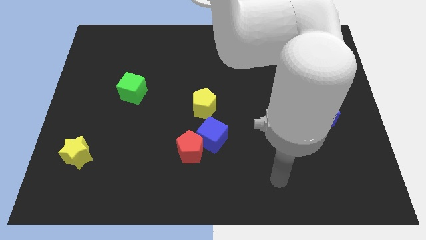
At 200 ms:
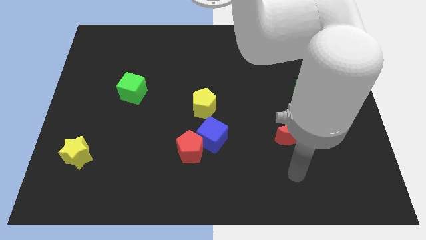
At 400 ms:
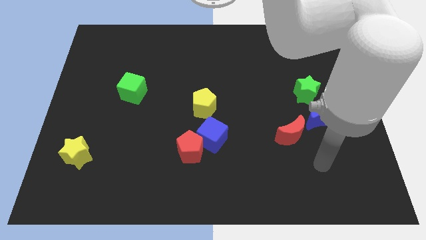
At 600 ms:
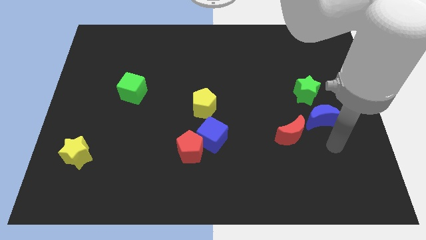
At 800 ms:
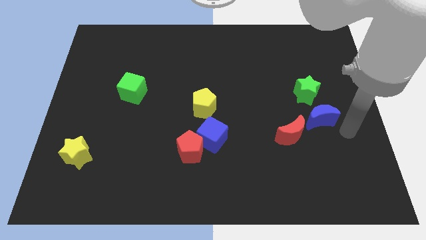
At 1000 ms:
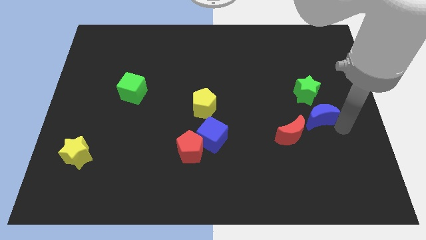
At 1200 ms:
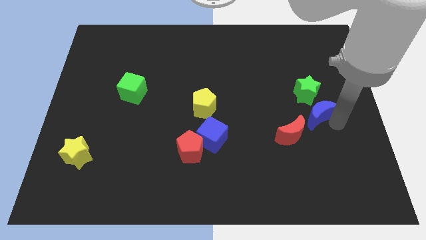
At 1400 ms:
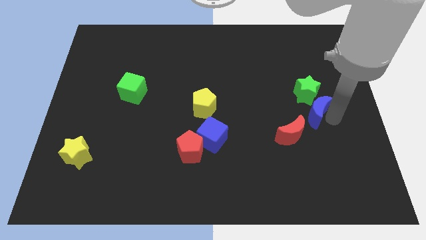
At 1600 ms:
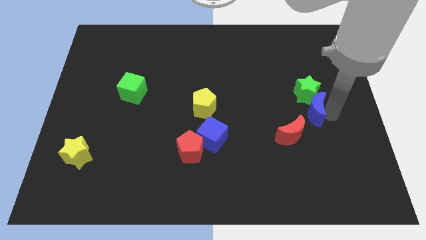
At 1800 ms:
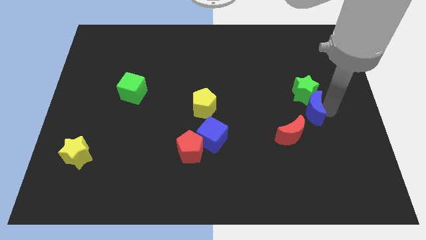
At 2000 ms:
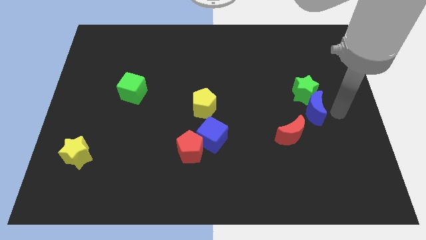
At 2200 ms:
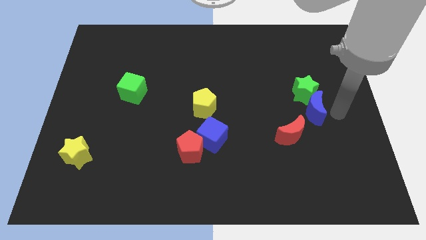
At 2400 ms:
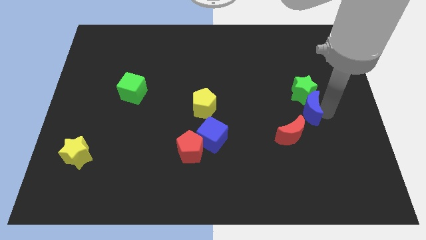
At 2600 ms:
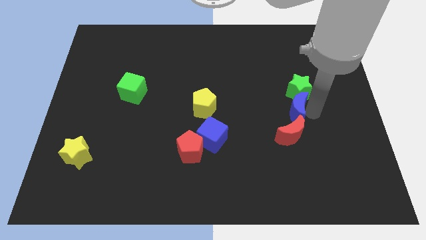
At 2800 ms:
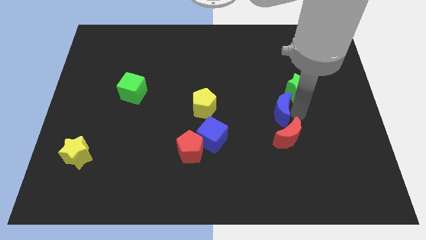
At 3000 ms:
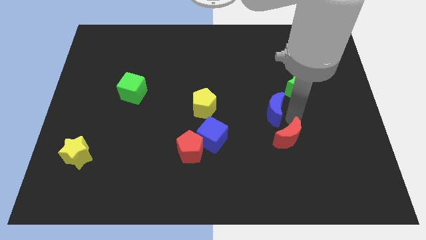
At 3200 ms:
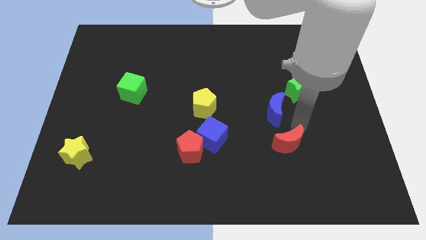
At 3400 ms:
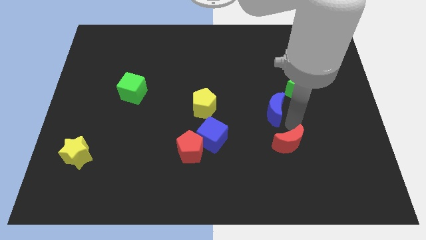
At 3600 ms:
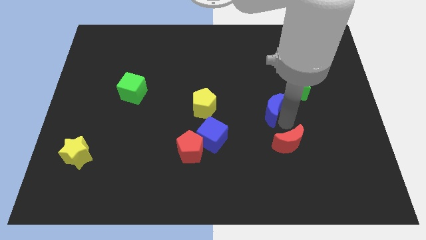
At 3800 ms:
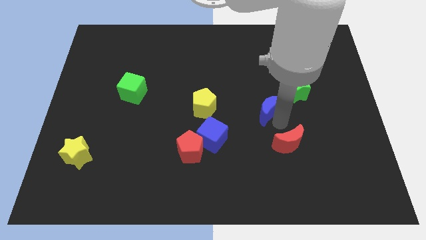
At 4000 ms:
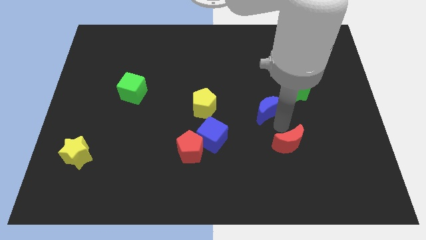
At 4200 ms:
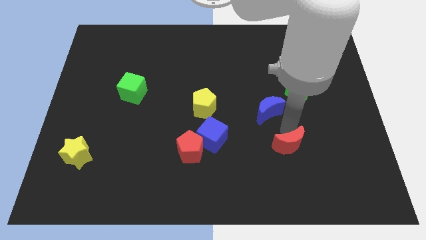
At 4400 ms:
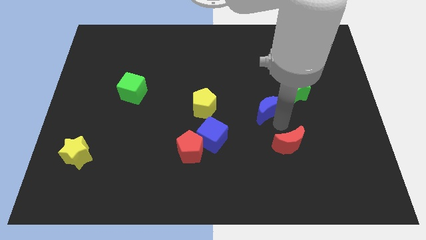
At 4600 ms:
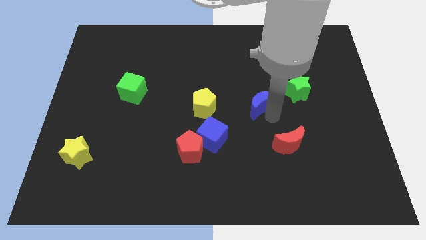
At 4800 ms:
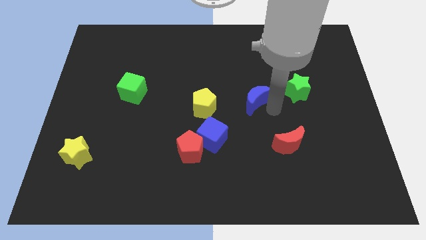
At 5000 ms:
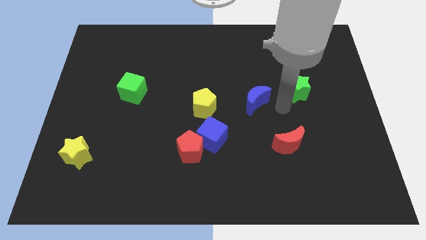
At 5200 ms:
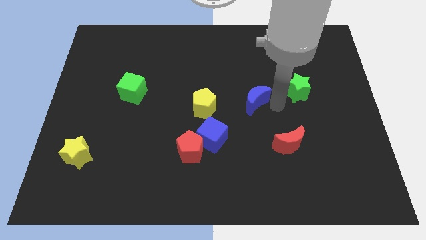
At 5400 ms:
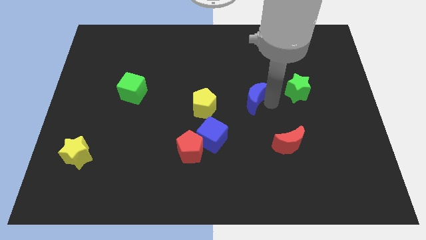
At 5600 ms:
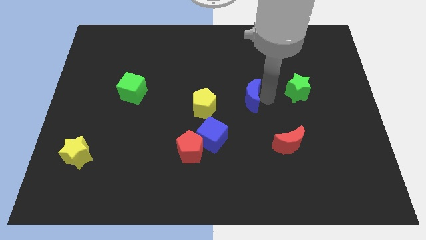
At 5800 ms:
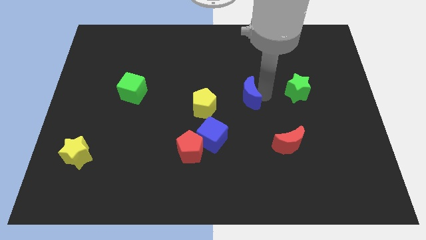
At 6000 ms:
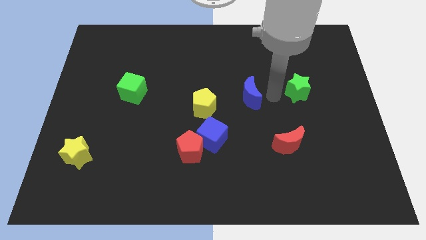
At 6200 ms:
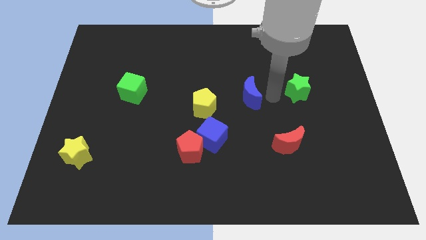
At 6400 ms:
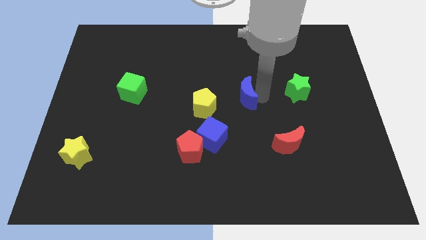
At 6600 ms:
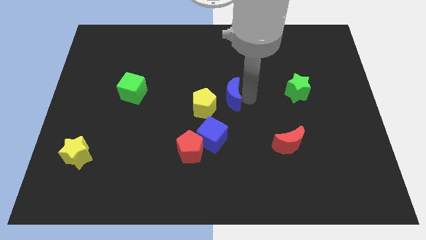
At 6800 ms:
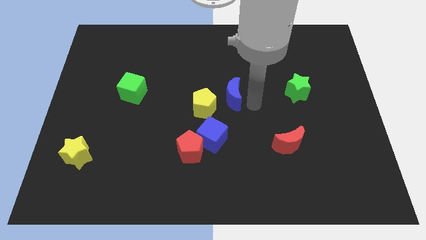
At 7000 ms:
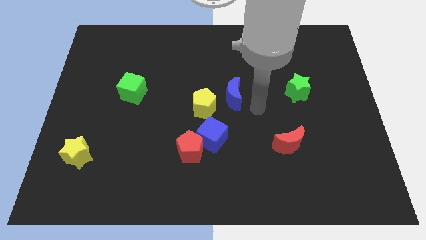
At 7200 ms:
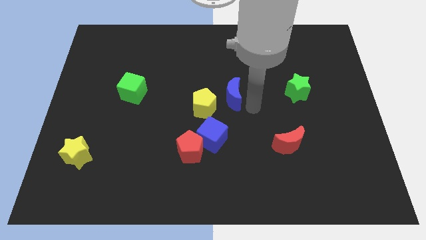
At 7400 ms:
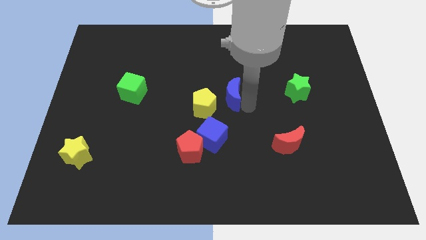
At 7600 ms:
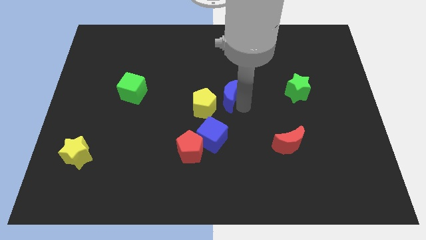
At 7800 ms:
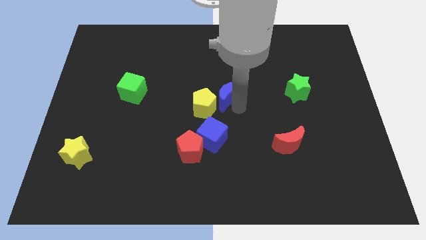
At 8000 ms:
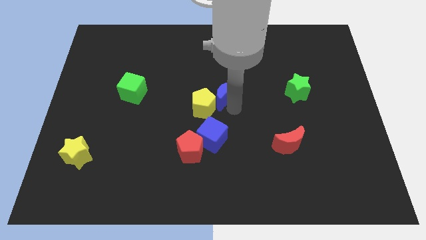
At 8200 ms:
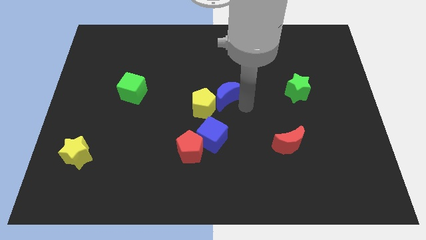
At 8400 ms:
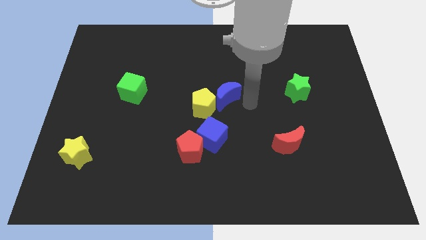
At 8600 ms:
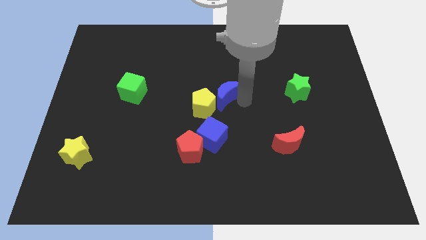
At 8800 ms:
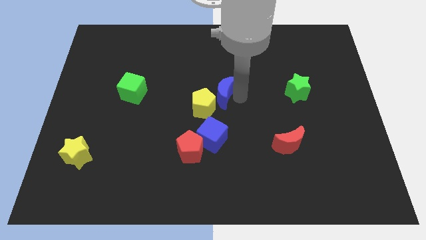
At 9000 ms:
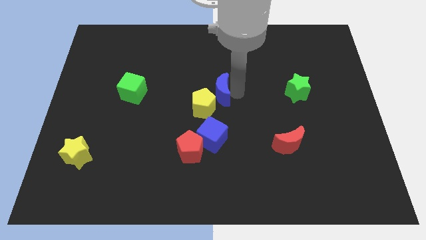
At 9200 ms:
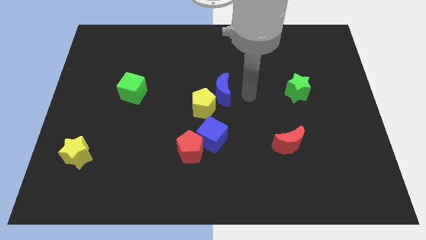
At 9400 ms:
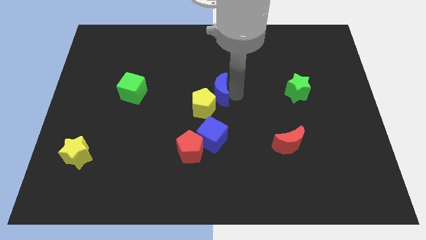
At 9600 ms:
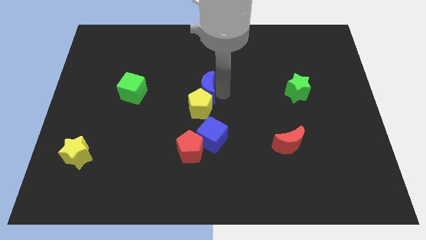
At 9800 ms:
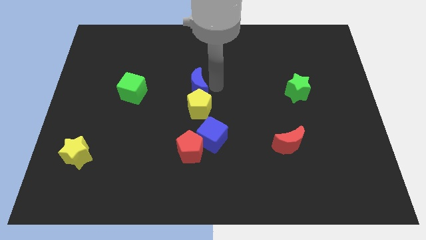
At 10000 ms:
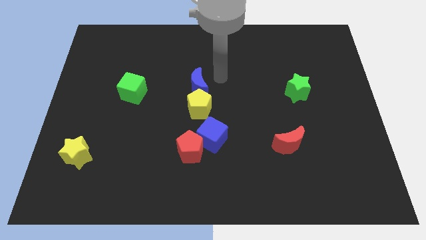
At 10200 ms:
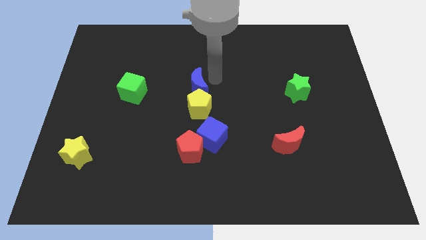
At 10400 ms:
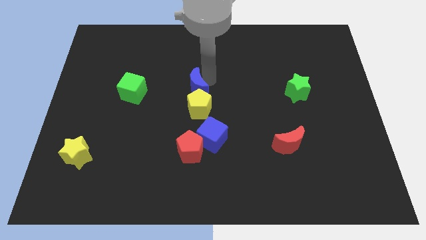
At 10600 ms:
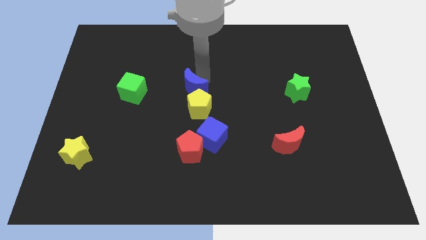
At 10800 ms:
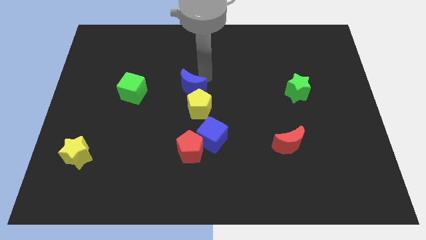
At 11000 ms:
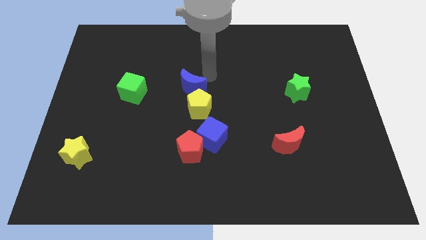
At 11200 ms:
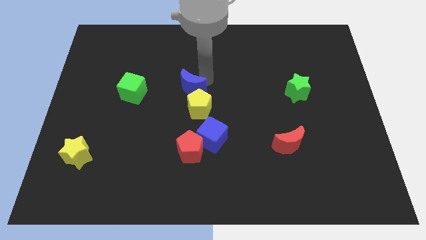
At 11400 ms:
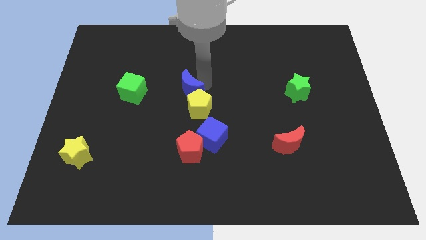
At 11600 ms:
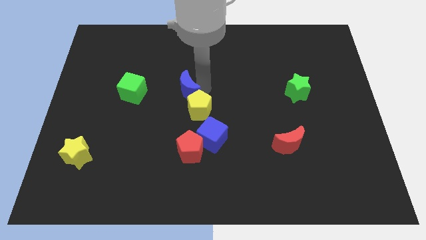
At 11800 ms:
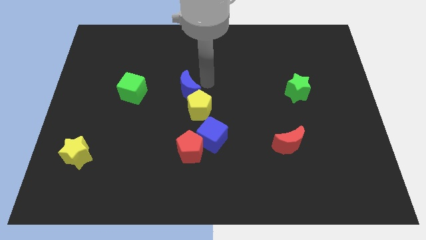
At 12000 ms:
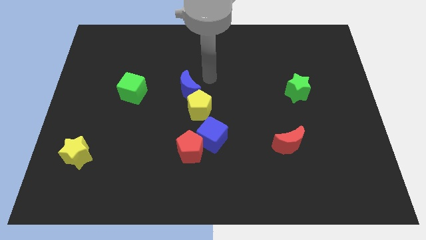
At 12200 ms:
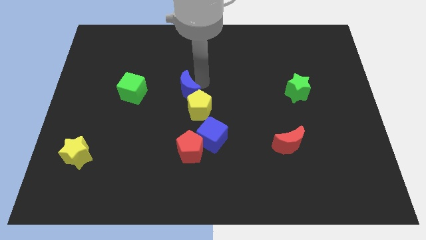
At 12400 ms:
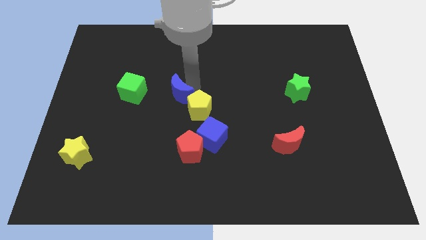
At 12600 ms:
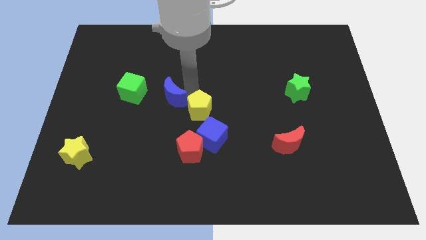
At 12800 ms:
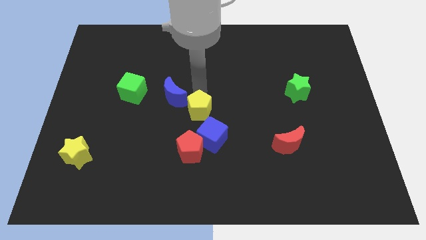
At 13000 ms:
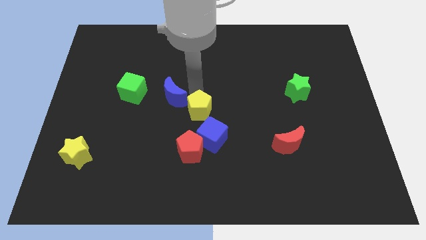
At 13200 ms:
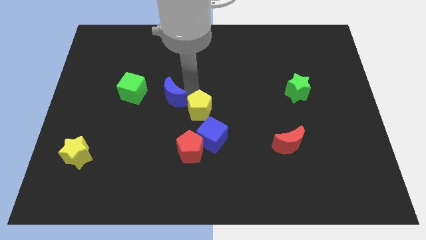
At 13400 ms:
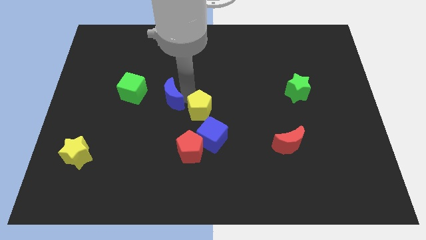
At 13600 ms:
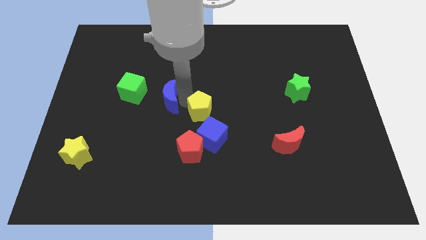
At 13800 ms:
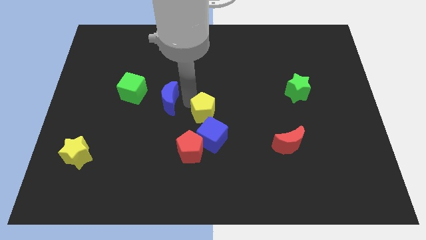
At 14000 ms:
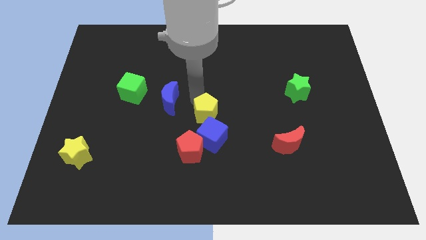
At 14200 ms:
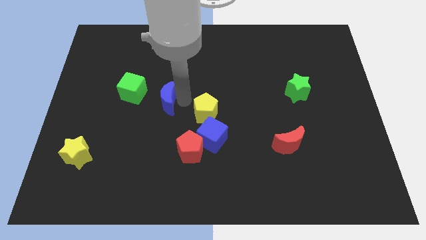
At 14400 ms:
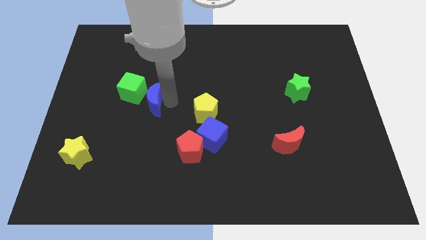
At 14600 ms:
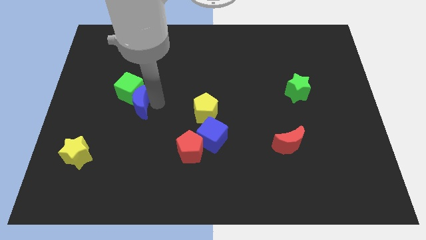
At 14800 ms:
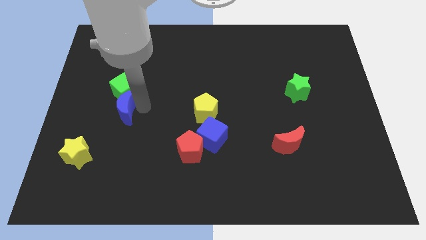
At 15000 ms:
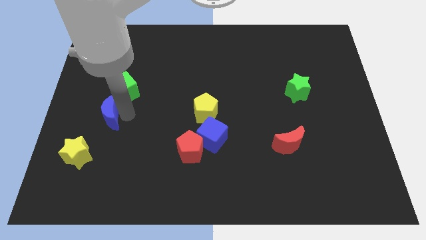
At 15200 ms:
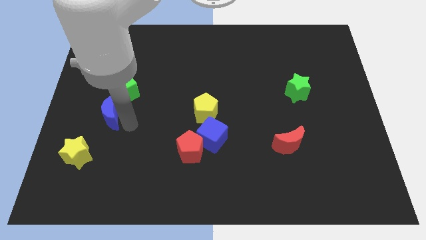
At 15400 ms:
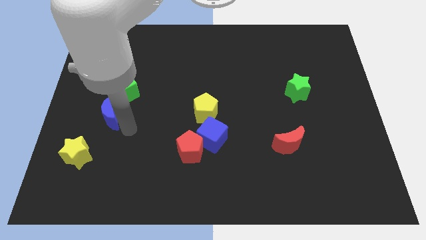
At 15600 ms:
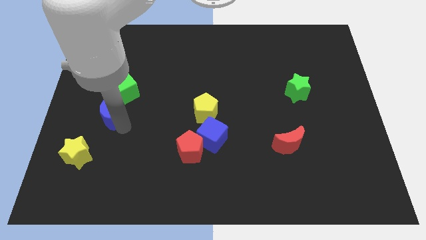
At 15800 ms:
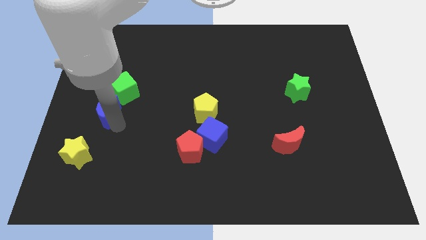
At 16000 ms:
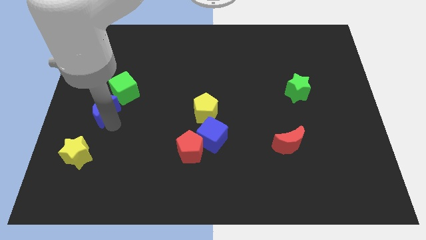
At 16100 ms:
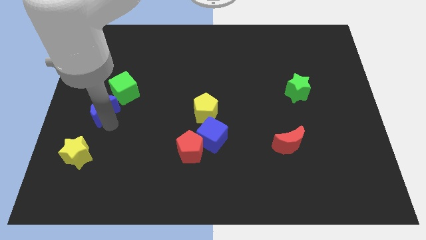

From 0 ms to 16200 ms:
push the blue moon to the center left
